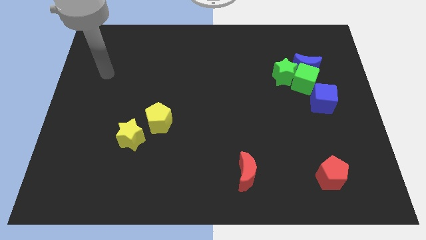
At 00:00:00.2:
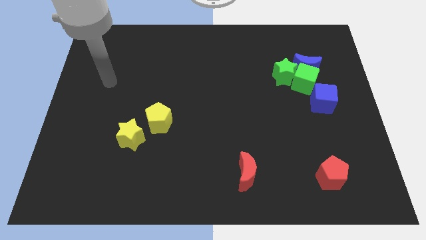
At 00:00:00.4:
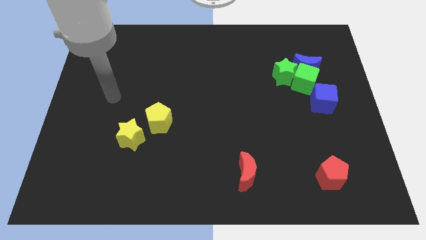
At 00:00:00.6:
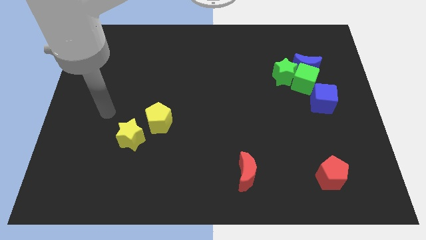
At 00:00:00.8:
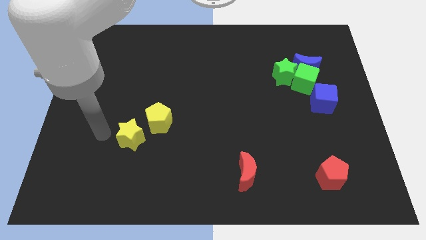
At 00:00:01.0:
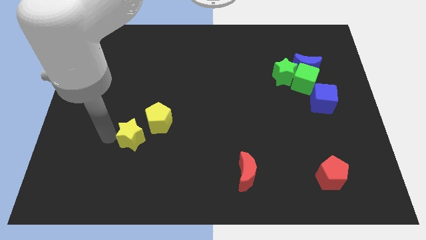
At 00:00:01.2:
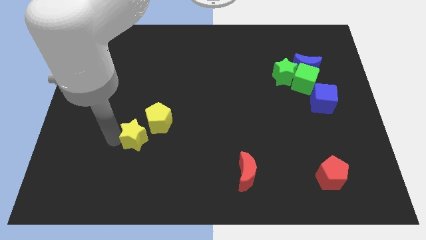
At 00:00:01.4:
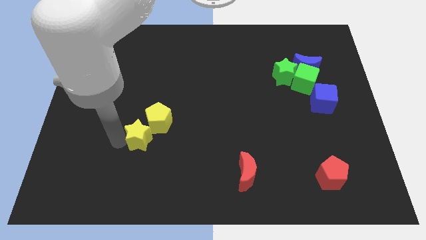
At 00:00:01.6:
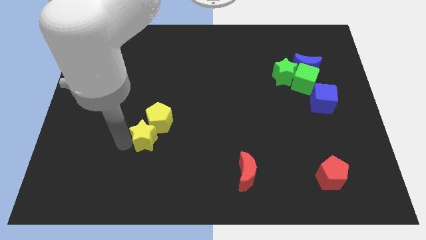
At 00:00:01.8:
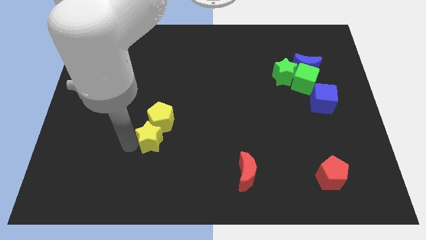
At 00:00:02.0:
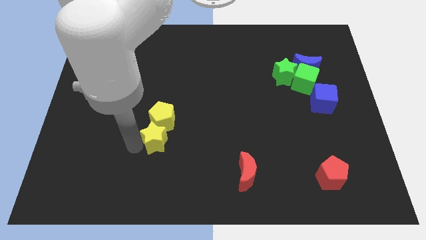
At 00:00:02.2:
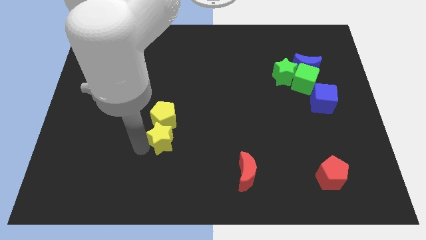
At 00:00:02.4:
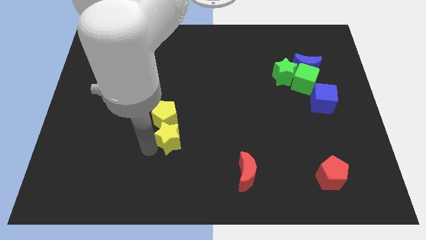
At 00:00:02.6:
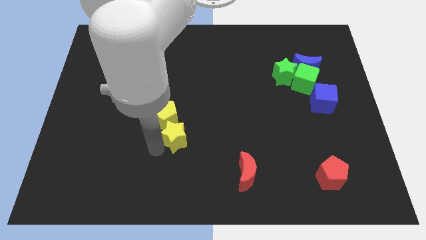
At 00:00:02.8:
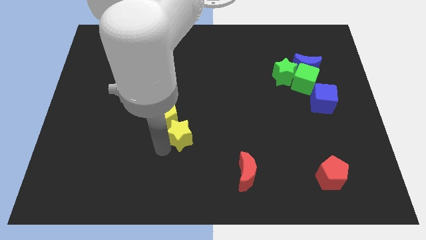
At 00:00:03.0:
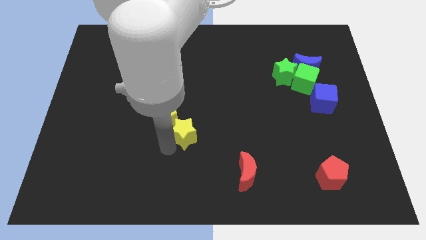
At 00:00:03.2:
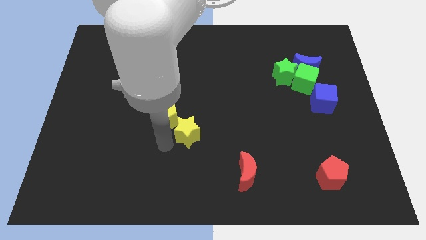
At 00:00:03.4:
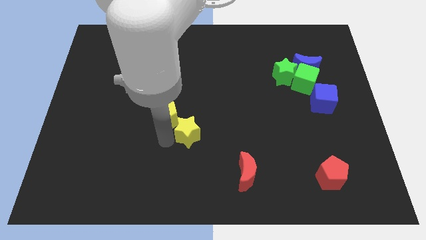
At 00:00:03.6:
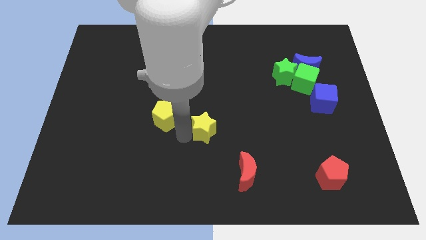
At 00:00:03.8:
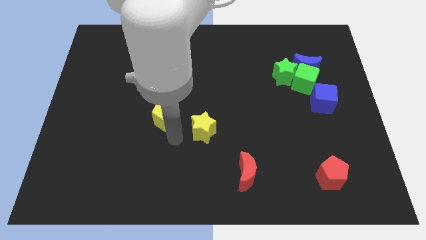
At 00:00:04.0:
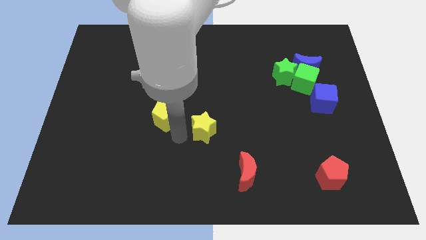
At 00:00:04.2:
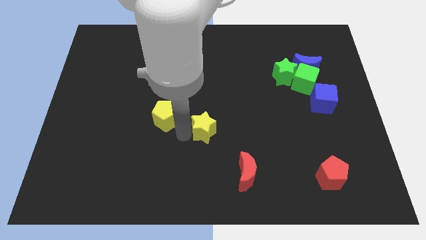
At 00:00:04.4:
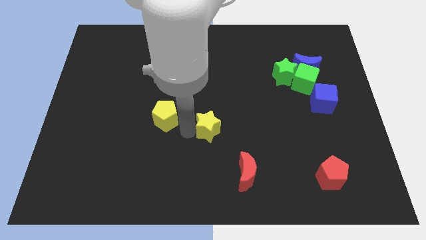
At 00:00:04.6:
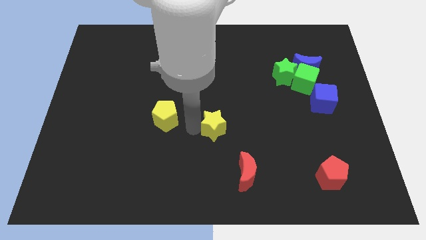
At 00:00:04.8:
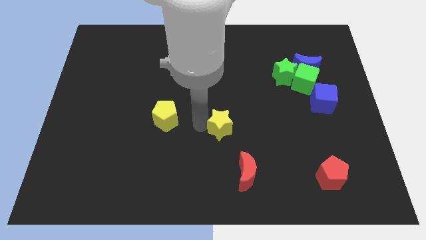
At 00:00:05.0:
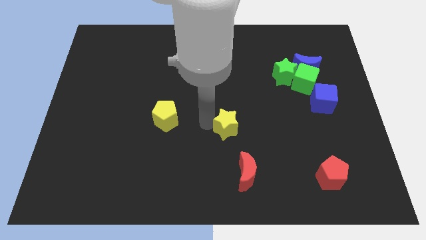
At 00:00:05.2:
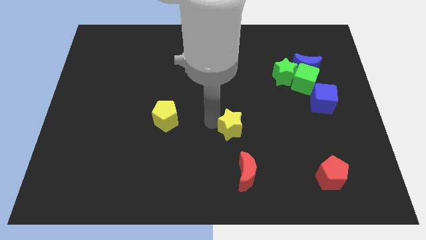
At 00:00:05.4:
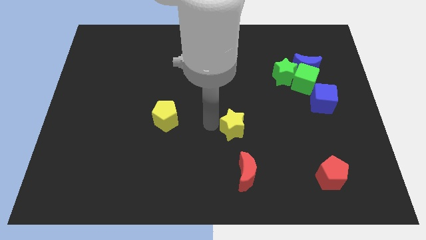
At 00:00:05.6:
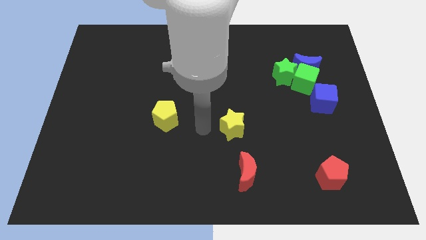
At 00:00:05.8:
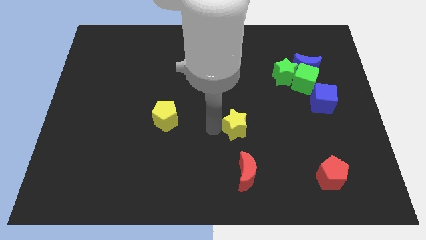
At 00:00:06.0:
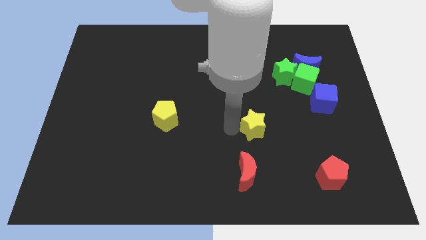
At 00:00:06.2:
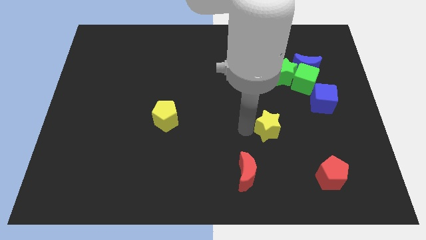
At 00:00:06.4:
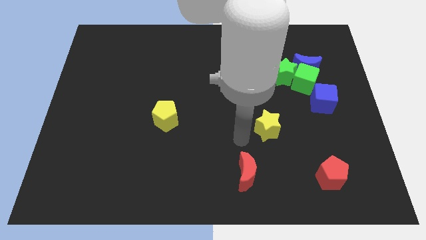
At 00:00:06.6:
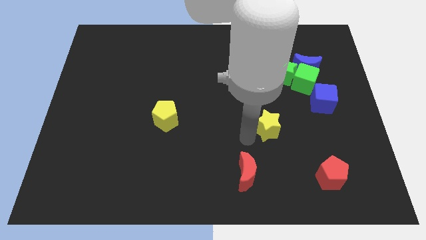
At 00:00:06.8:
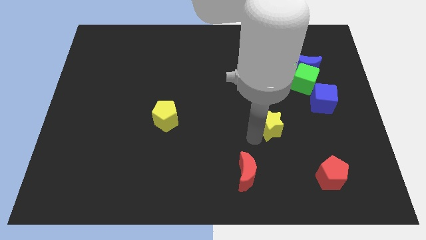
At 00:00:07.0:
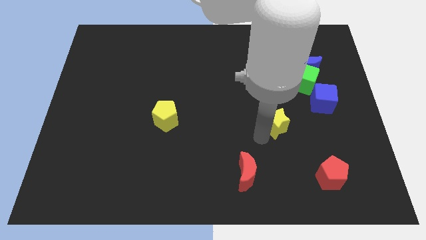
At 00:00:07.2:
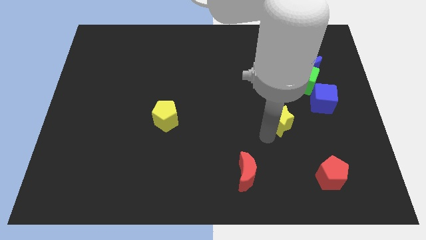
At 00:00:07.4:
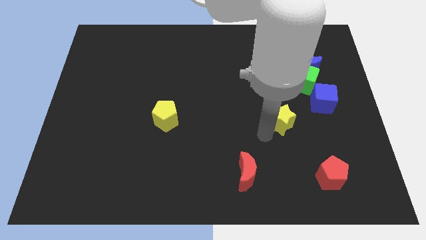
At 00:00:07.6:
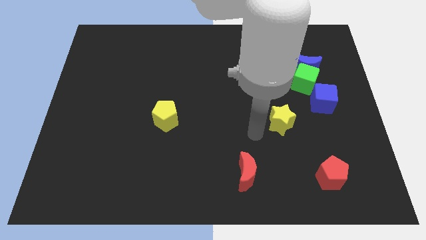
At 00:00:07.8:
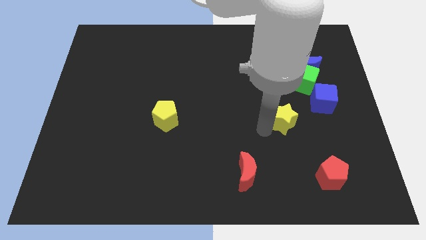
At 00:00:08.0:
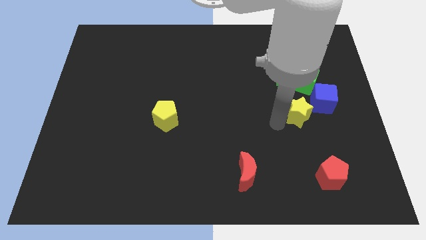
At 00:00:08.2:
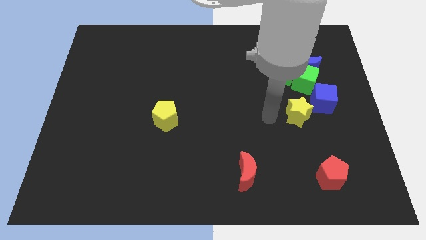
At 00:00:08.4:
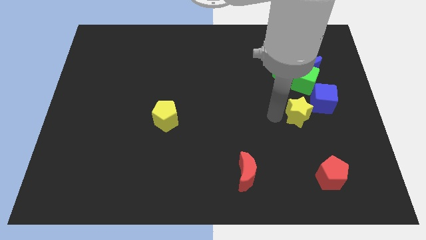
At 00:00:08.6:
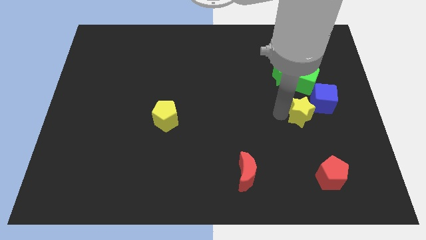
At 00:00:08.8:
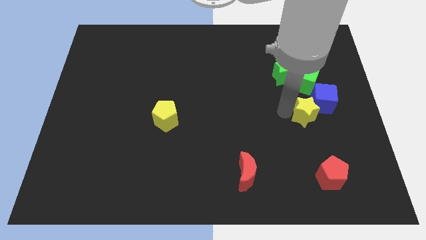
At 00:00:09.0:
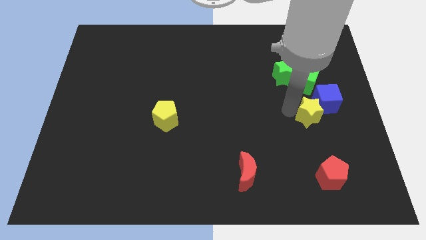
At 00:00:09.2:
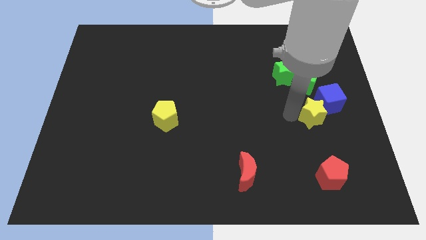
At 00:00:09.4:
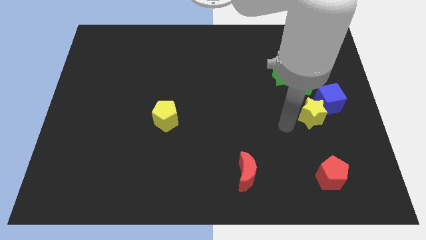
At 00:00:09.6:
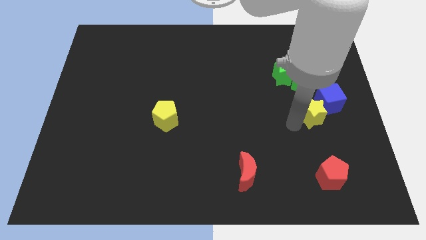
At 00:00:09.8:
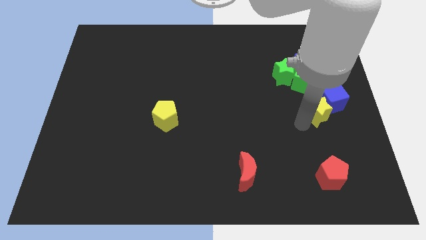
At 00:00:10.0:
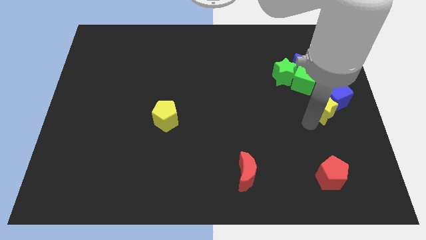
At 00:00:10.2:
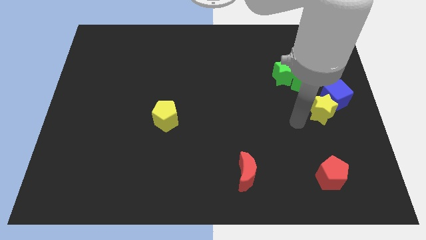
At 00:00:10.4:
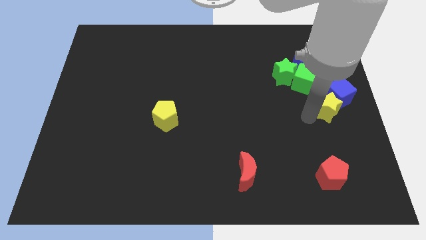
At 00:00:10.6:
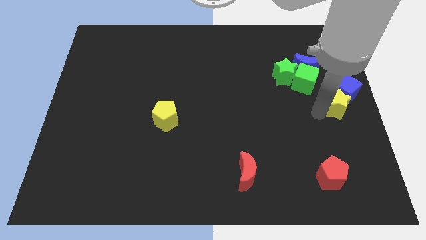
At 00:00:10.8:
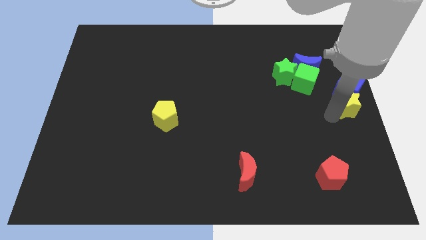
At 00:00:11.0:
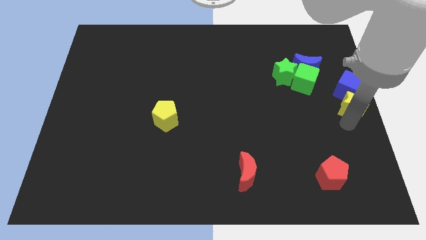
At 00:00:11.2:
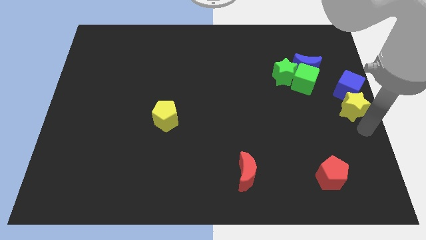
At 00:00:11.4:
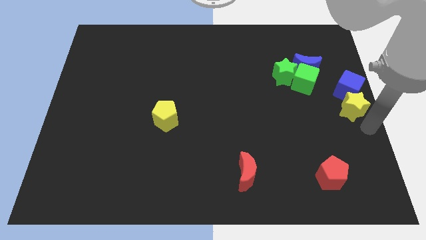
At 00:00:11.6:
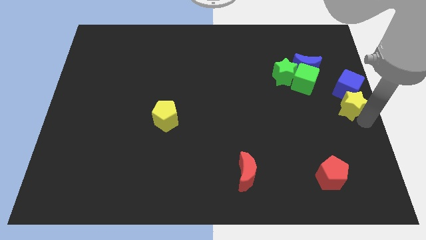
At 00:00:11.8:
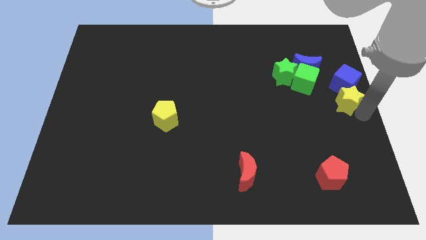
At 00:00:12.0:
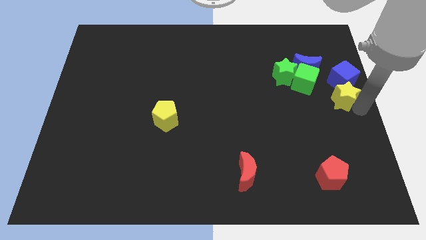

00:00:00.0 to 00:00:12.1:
slide the yellow star to the bottom right side of the blue moon

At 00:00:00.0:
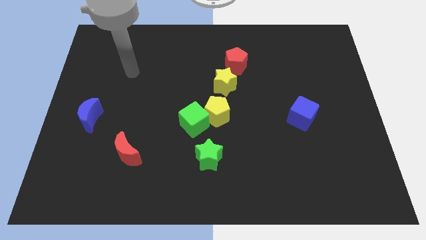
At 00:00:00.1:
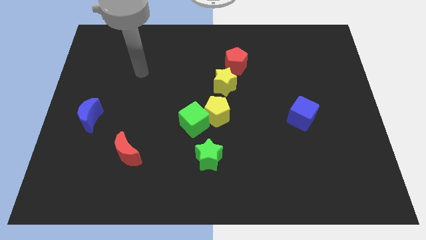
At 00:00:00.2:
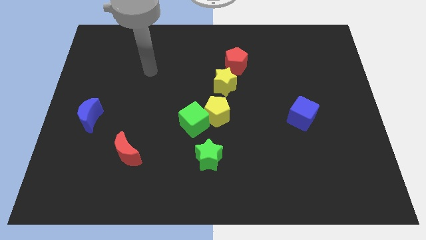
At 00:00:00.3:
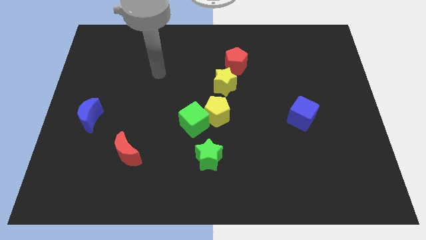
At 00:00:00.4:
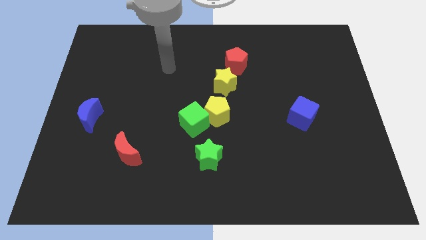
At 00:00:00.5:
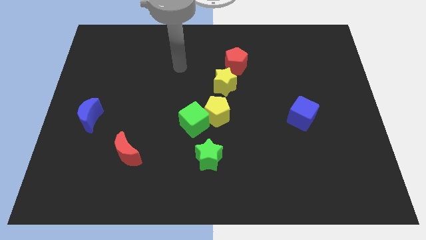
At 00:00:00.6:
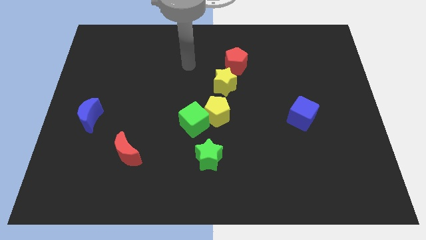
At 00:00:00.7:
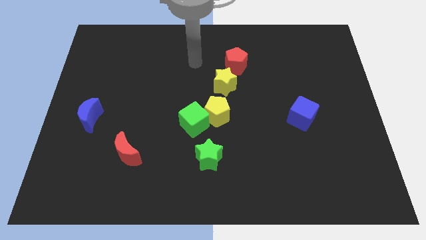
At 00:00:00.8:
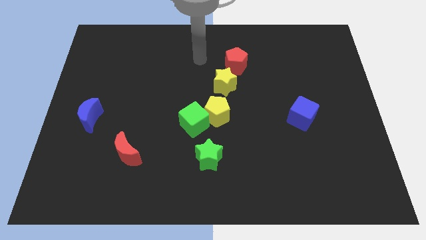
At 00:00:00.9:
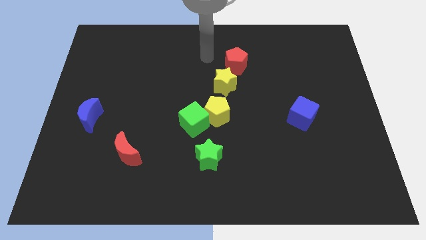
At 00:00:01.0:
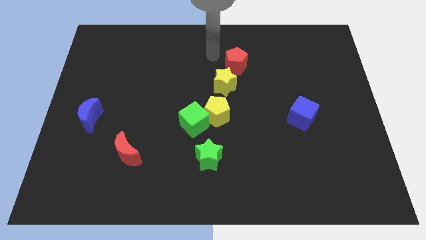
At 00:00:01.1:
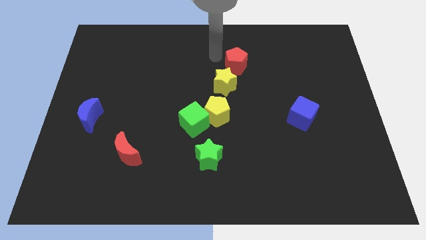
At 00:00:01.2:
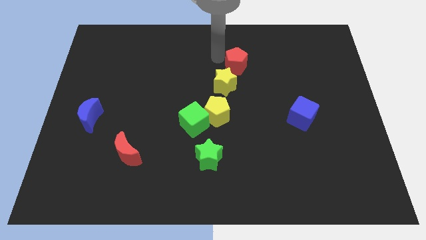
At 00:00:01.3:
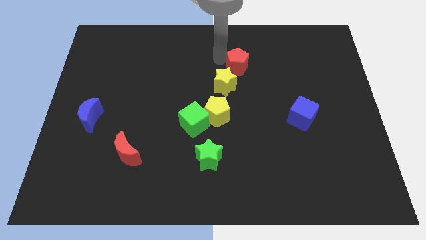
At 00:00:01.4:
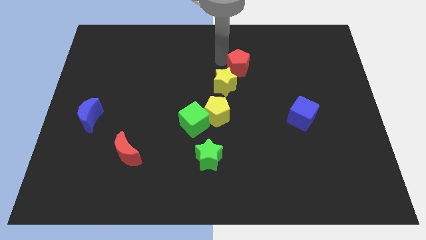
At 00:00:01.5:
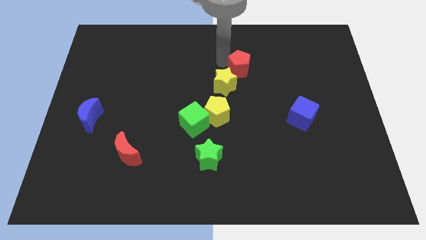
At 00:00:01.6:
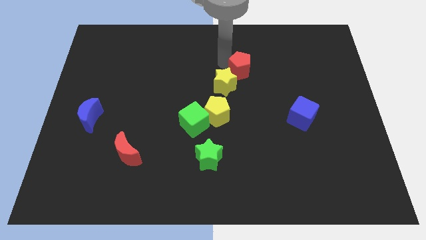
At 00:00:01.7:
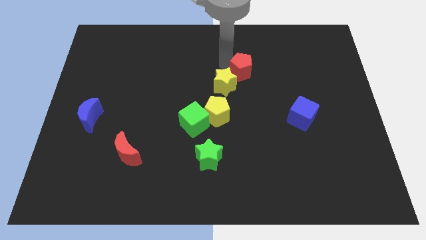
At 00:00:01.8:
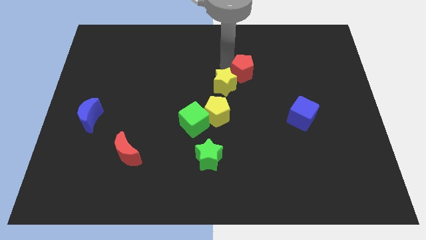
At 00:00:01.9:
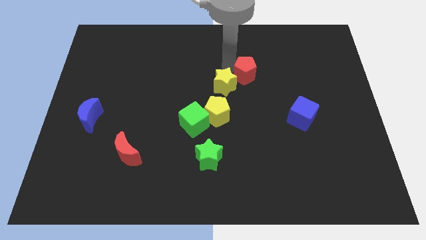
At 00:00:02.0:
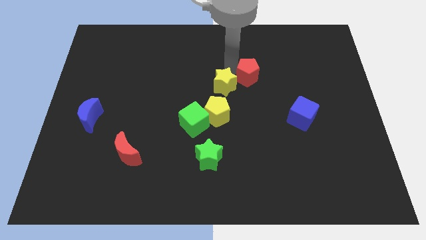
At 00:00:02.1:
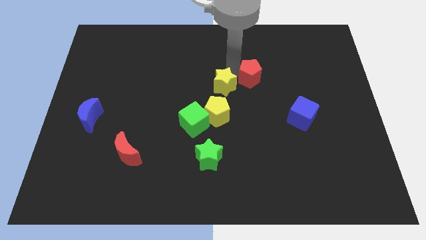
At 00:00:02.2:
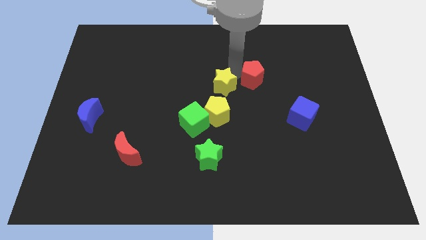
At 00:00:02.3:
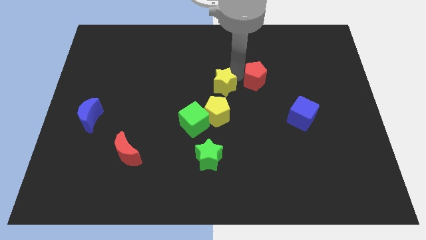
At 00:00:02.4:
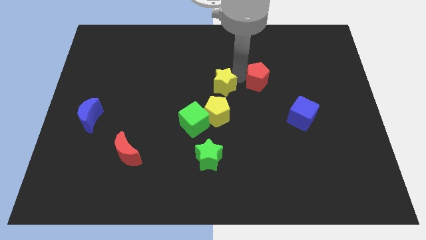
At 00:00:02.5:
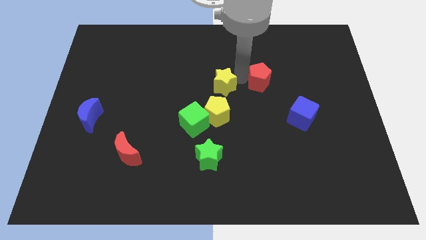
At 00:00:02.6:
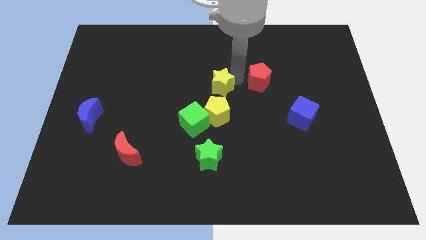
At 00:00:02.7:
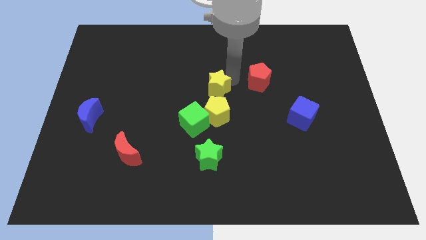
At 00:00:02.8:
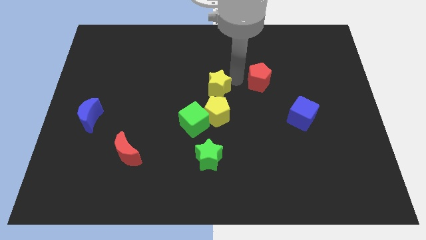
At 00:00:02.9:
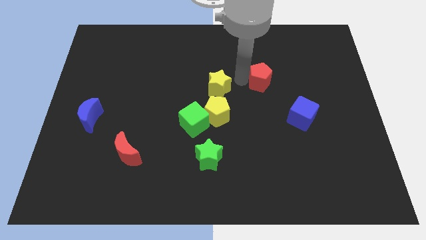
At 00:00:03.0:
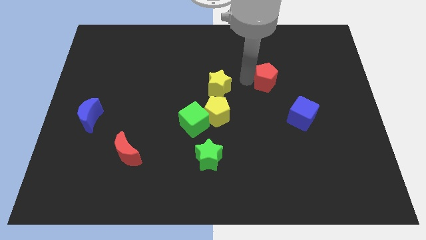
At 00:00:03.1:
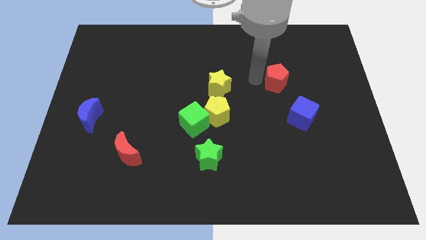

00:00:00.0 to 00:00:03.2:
move the red pentagon to the top of the blue cube
